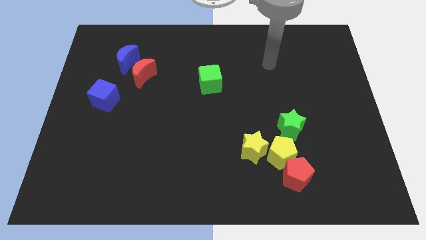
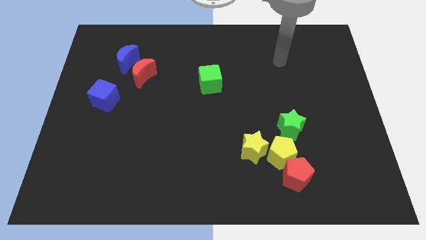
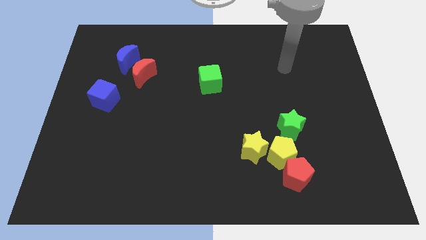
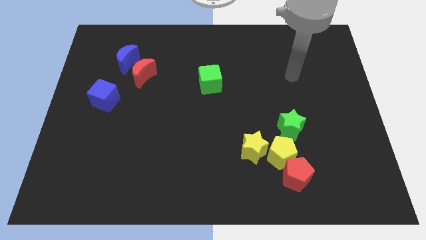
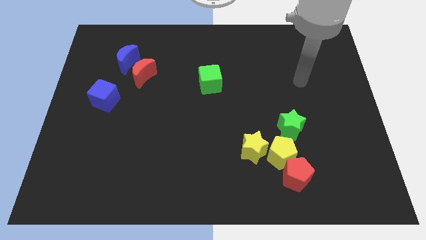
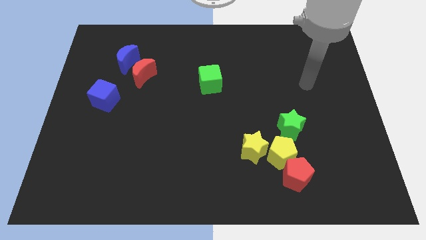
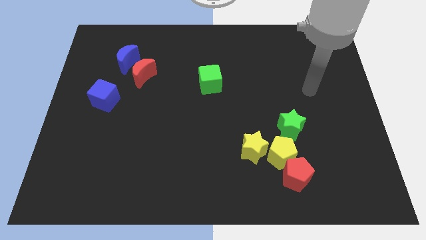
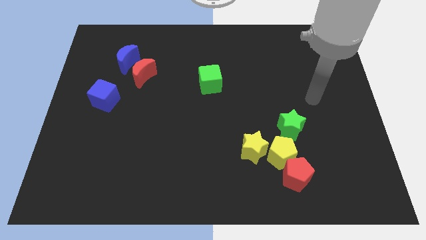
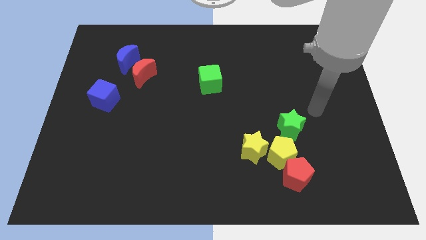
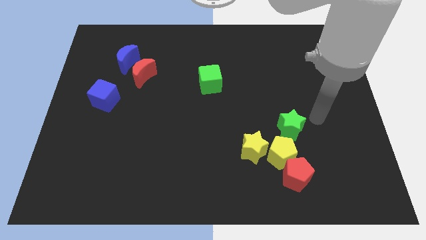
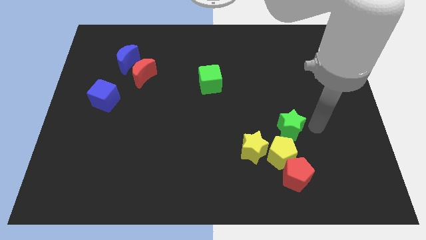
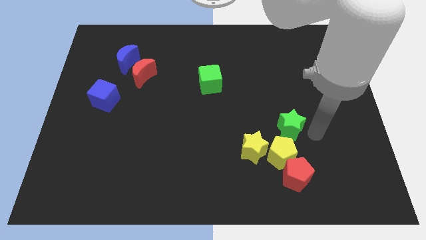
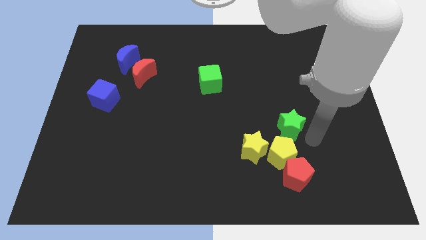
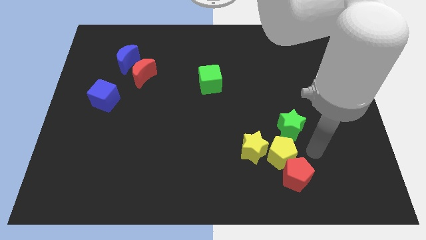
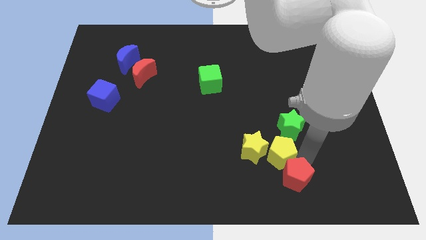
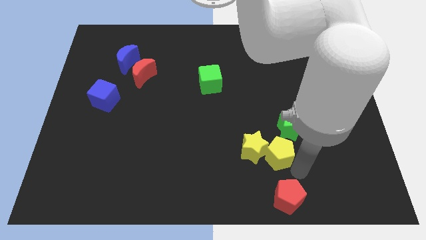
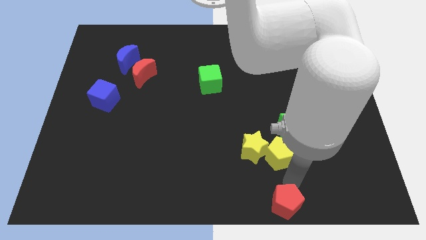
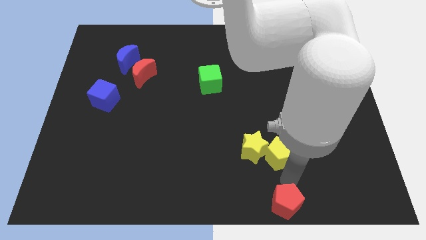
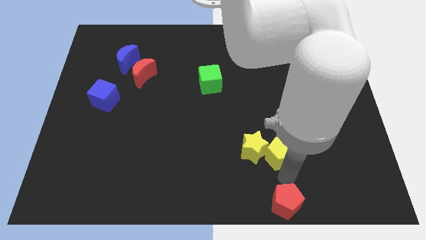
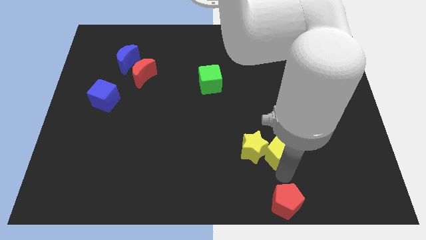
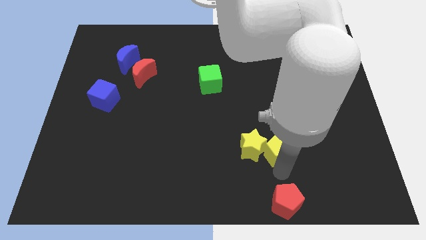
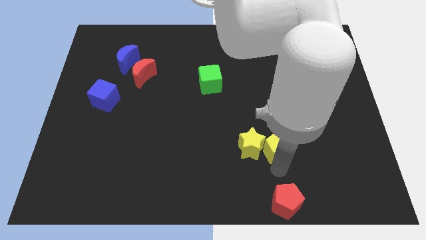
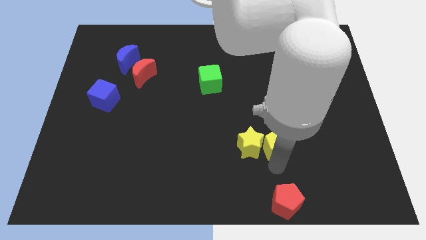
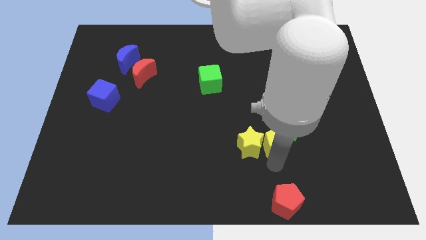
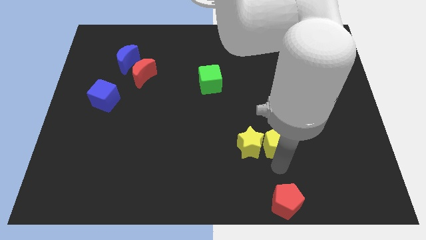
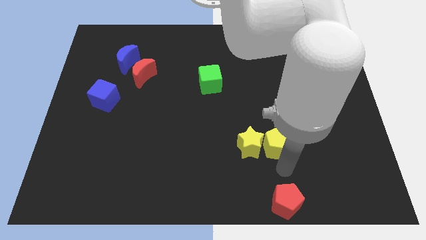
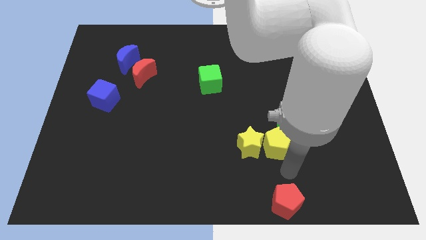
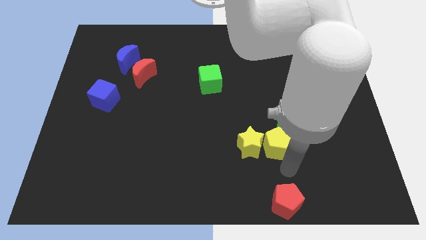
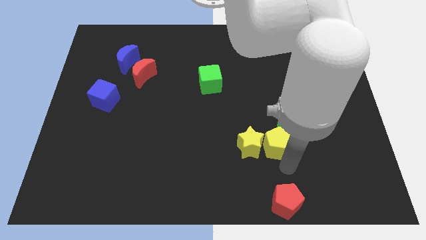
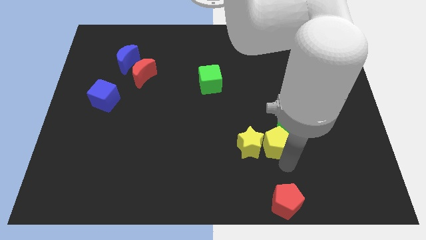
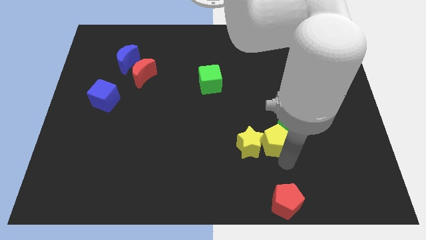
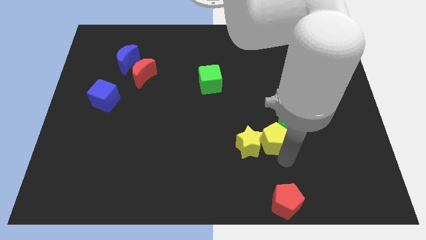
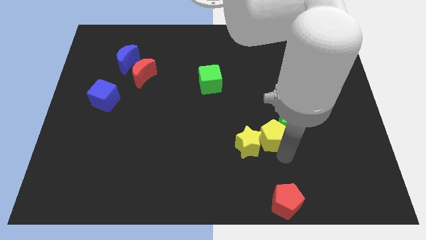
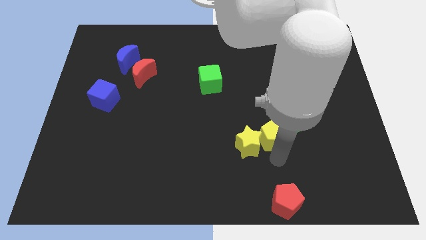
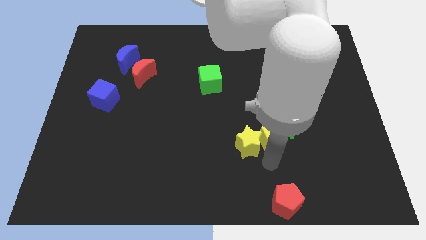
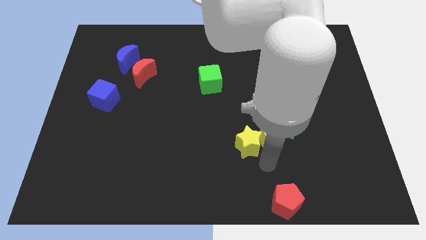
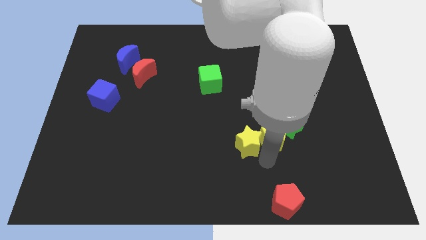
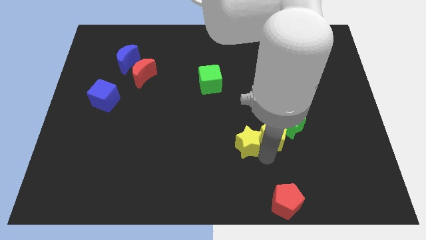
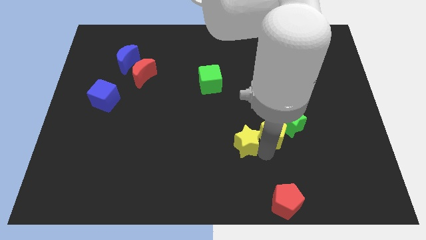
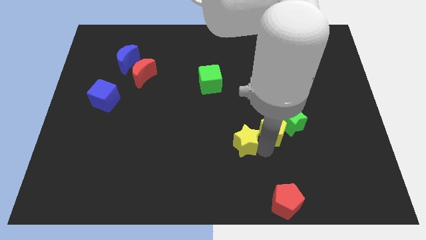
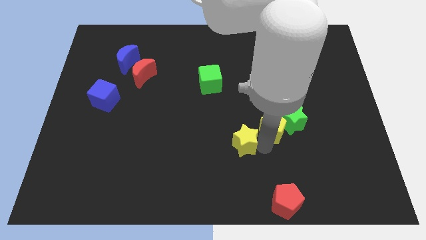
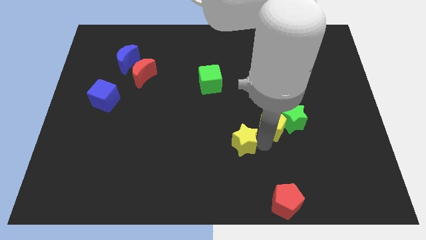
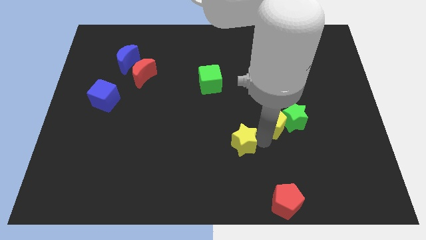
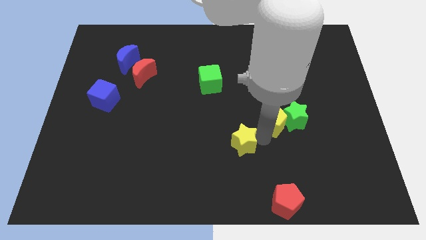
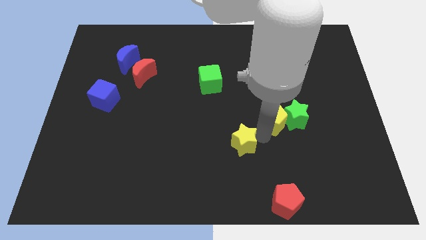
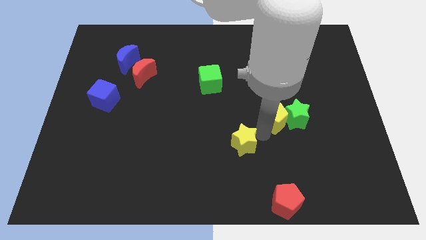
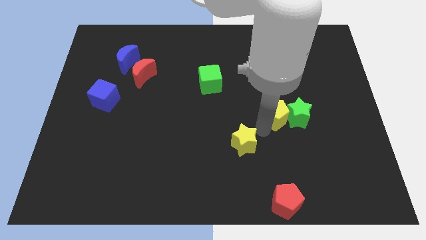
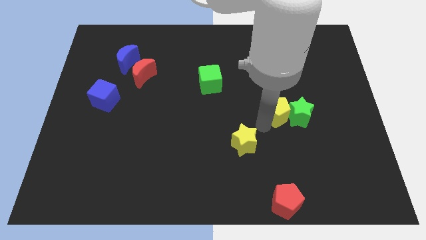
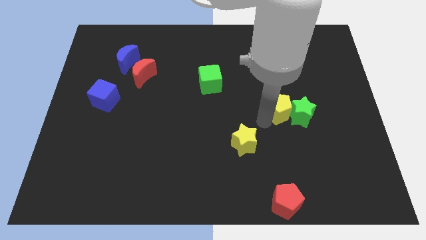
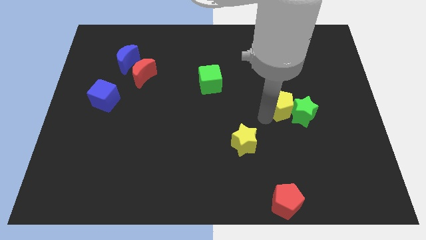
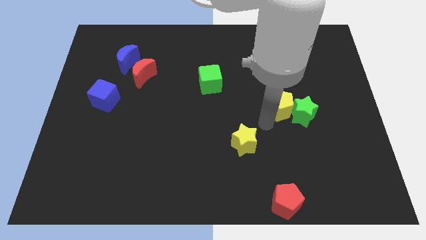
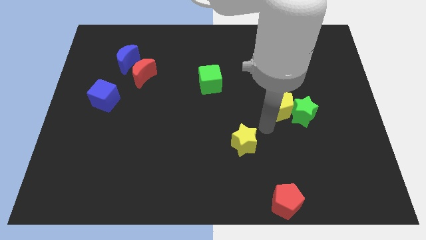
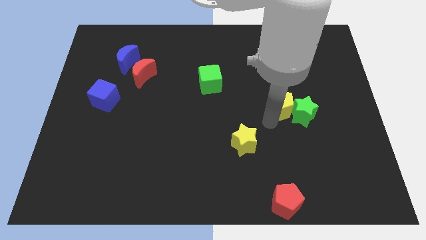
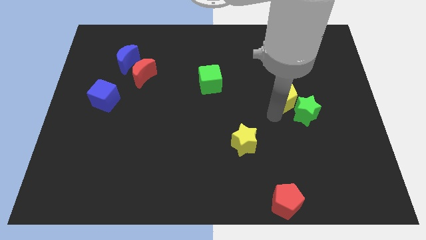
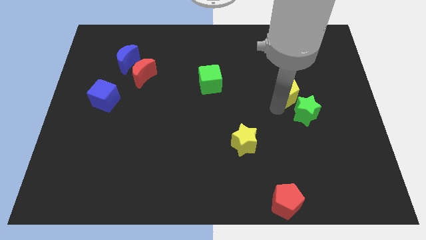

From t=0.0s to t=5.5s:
move the yellow pentagon to the top of the green star

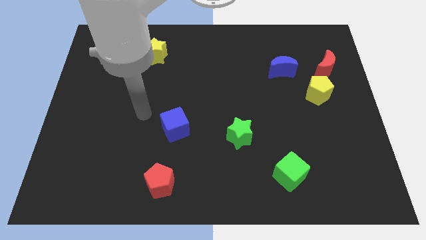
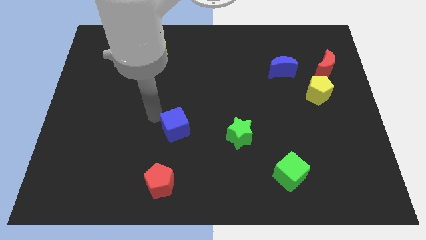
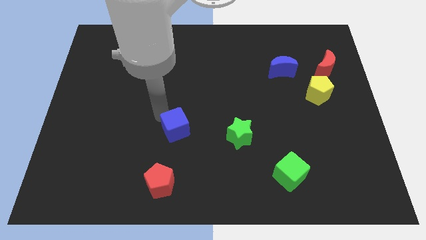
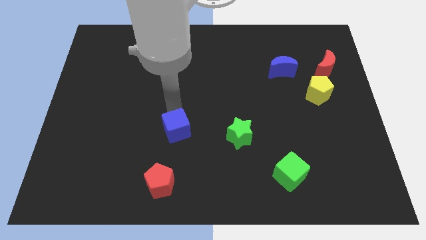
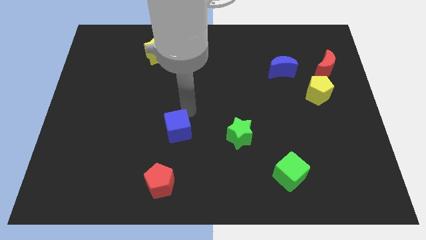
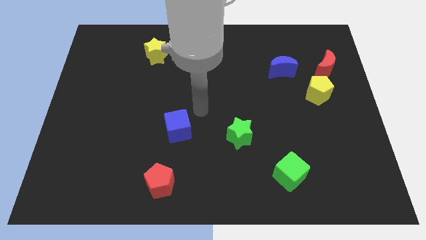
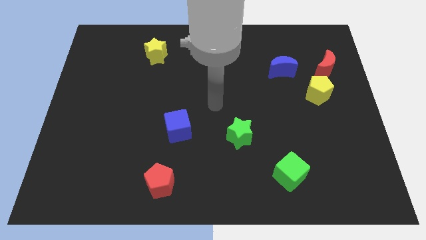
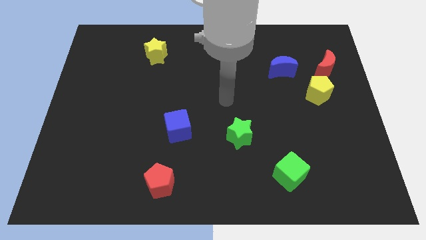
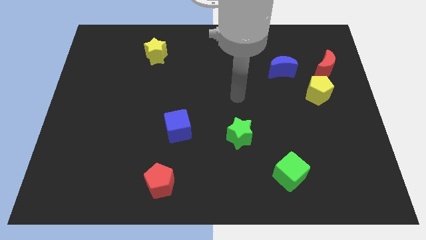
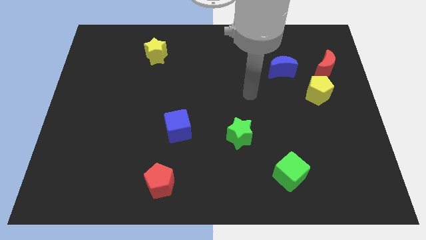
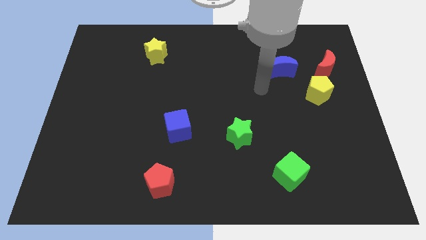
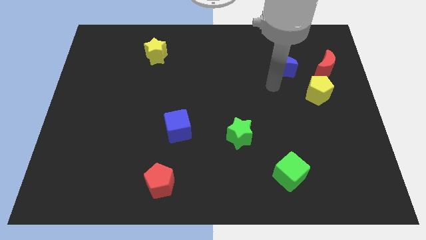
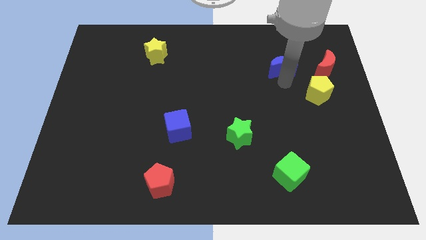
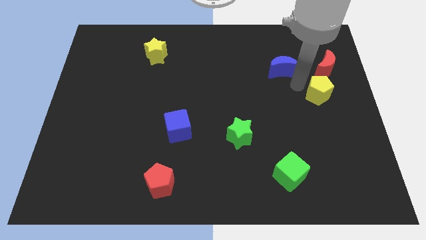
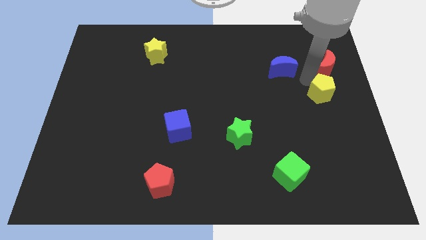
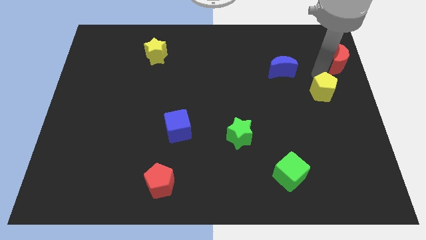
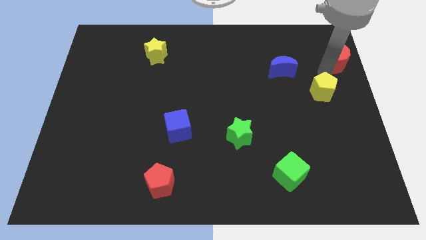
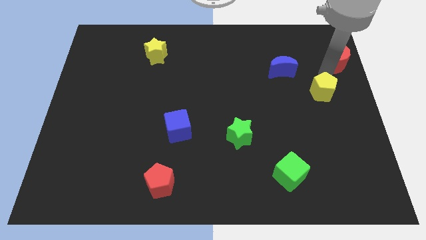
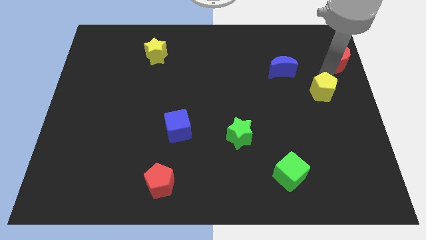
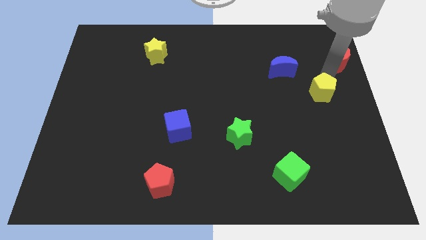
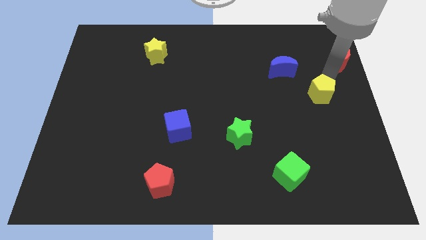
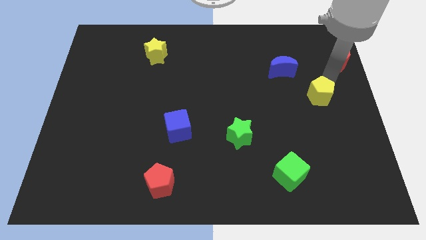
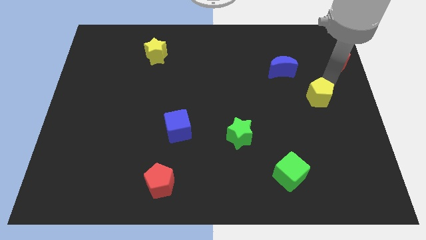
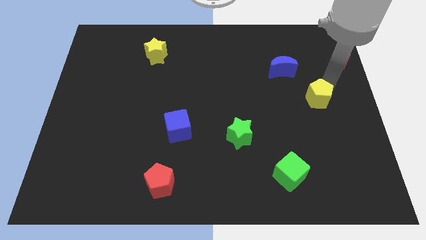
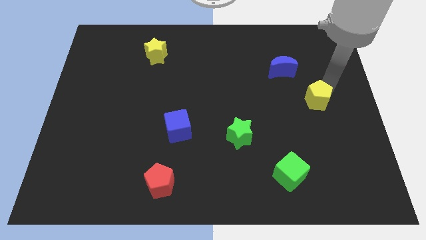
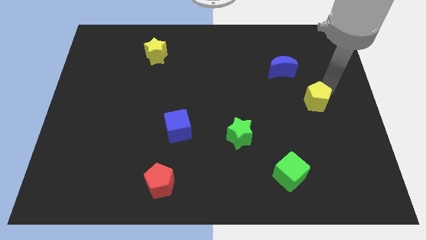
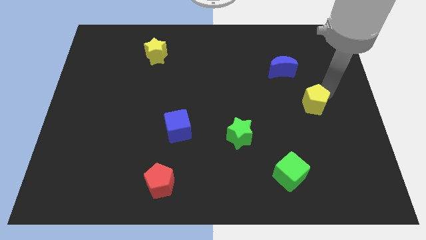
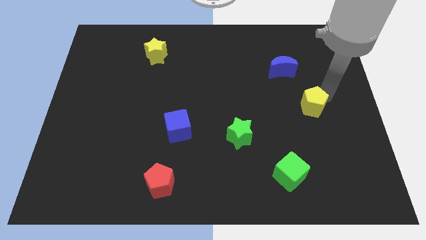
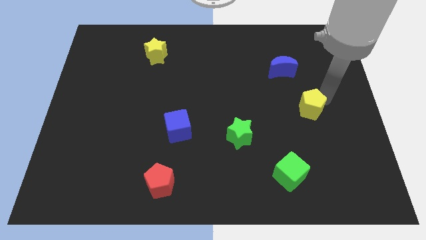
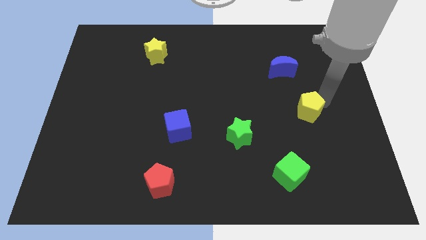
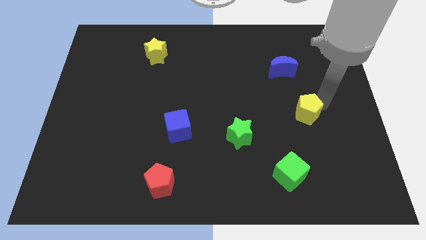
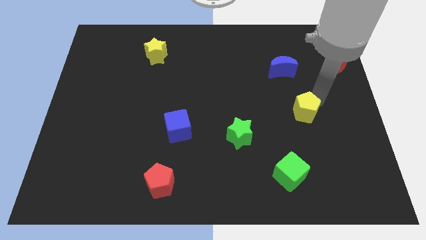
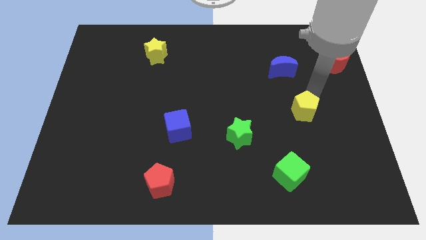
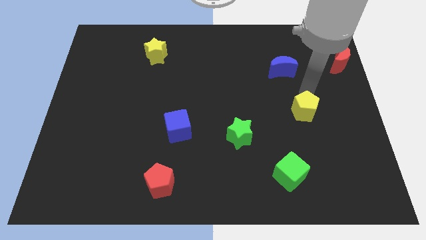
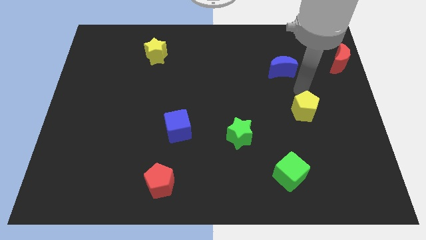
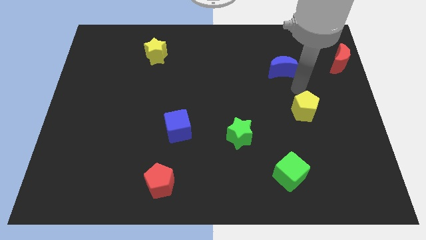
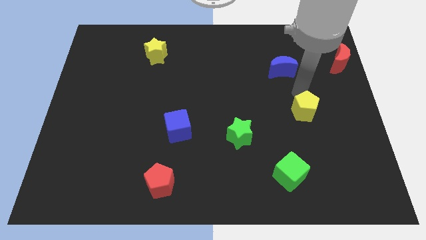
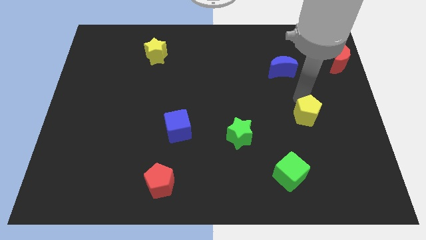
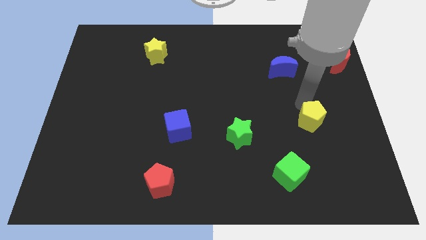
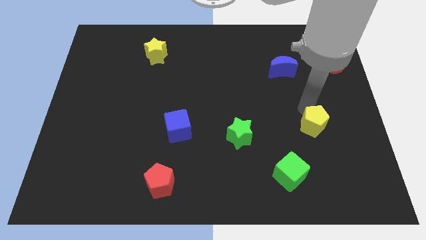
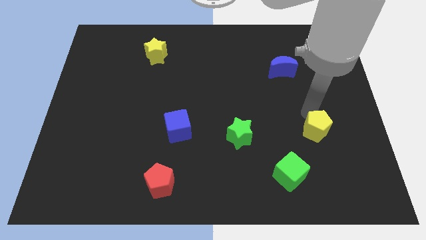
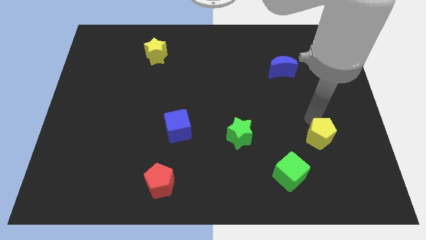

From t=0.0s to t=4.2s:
push the yellow pentagon diagonally up and to the right of the green cube
